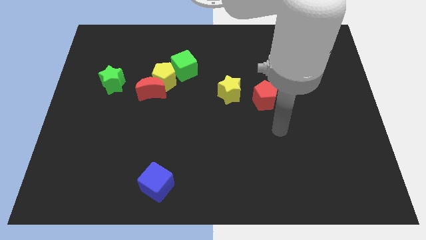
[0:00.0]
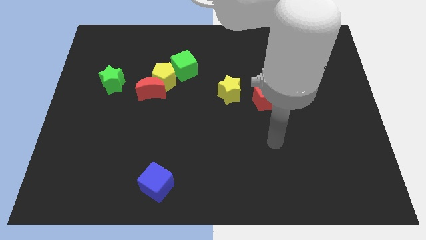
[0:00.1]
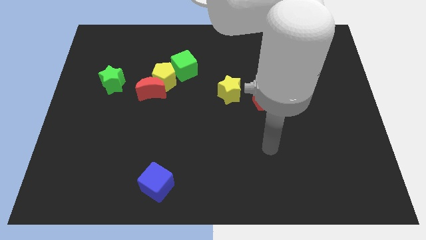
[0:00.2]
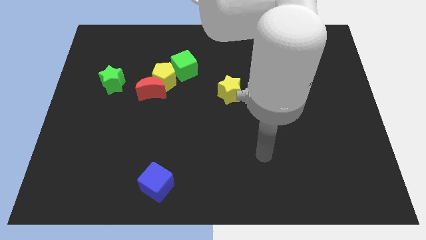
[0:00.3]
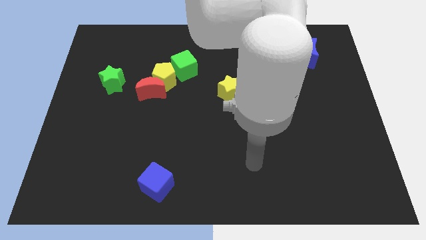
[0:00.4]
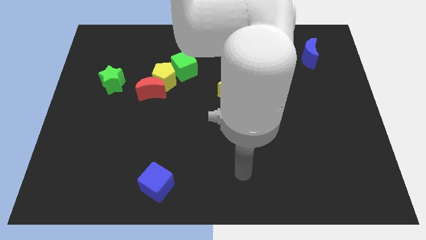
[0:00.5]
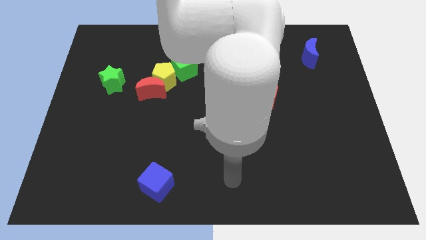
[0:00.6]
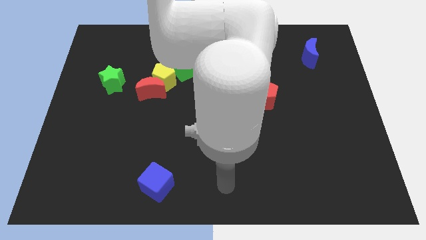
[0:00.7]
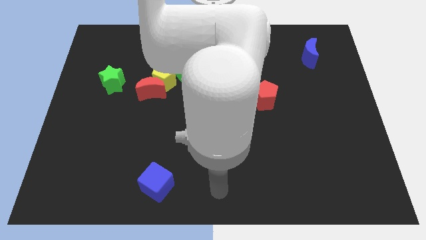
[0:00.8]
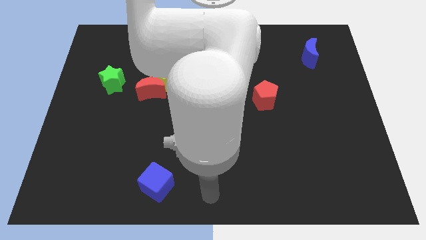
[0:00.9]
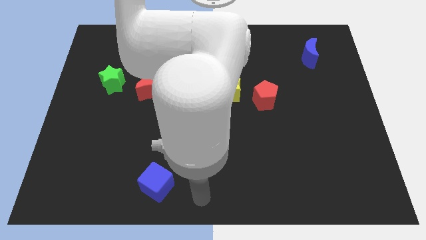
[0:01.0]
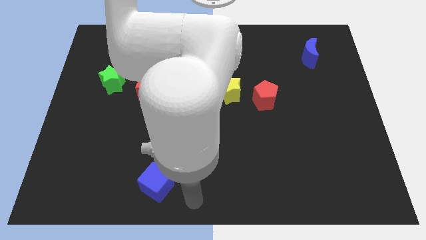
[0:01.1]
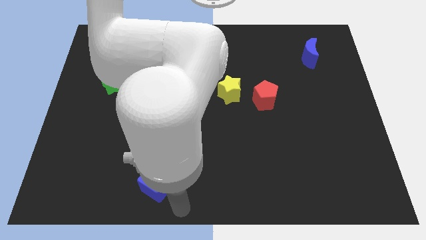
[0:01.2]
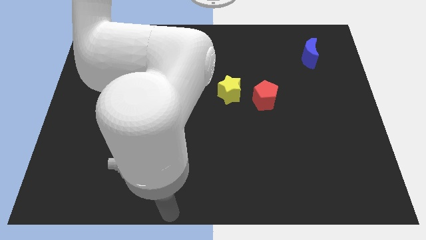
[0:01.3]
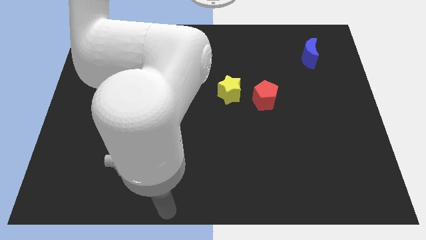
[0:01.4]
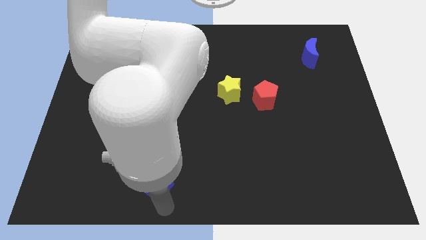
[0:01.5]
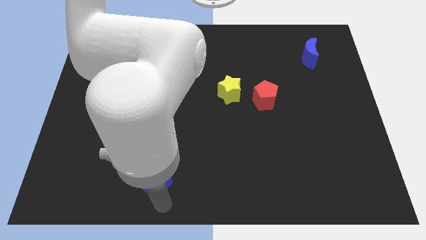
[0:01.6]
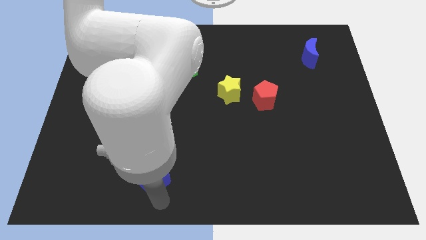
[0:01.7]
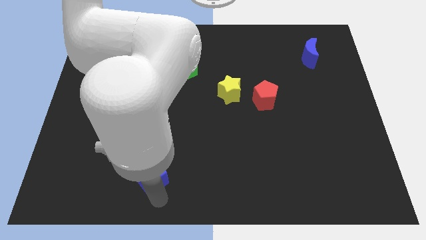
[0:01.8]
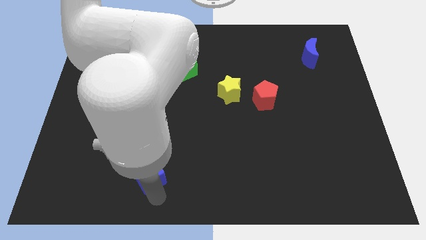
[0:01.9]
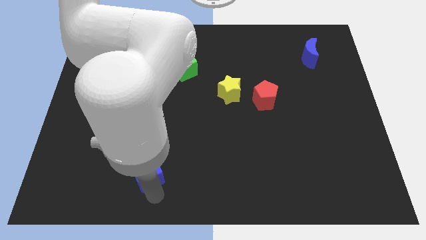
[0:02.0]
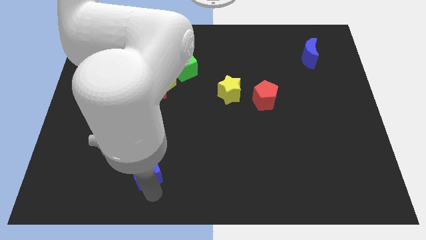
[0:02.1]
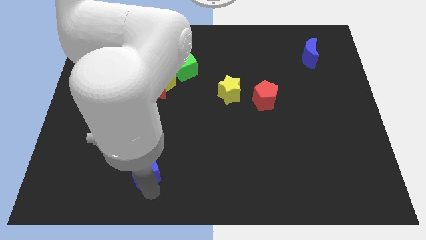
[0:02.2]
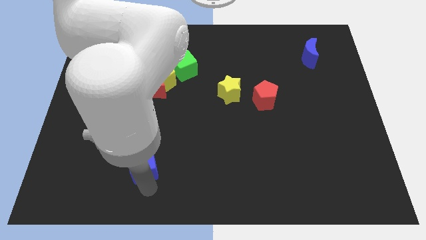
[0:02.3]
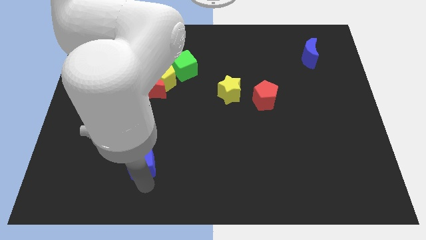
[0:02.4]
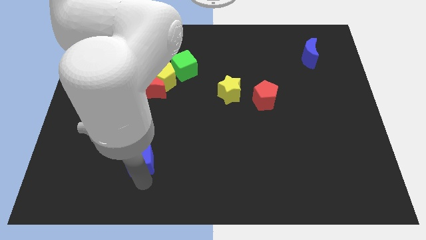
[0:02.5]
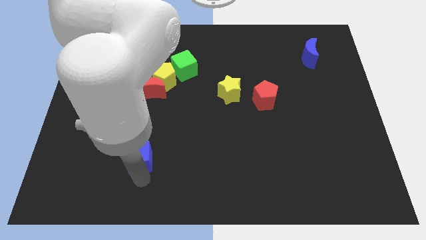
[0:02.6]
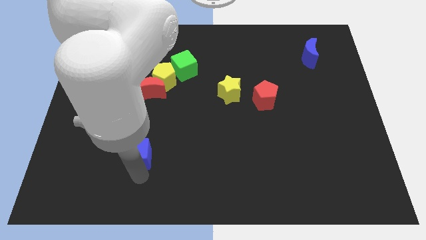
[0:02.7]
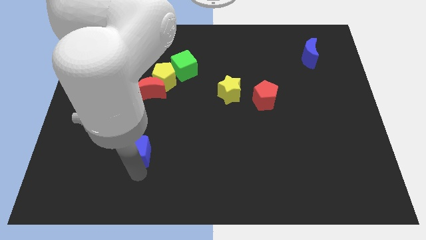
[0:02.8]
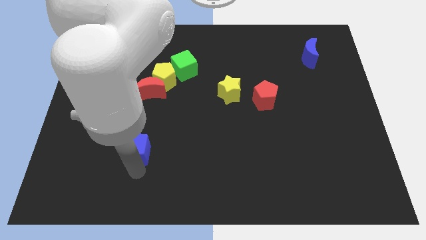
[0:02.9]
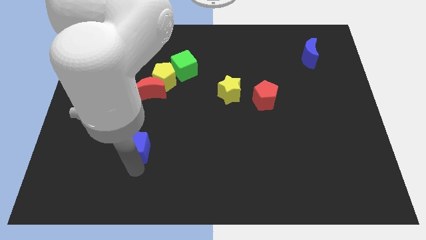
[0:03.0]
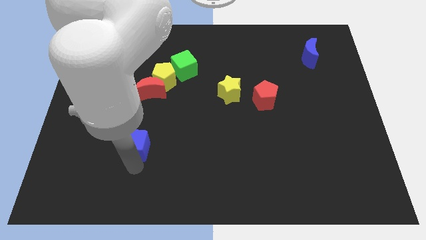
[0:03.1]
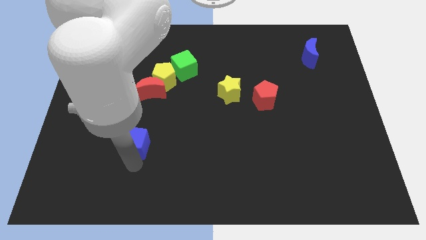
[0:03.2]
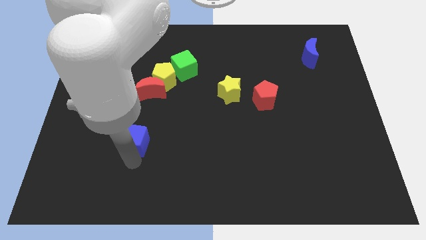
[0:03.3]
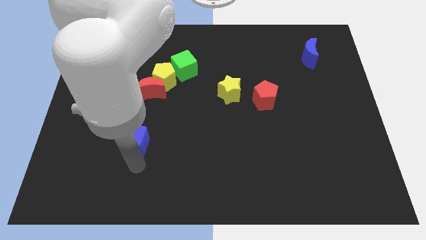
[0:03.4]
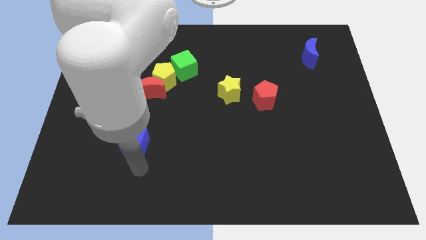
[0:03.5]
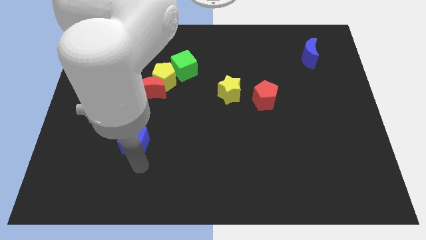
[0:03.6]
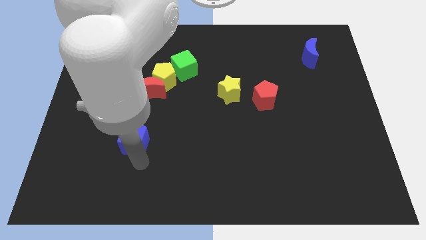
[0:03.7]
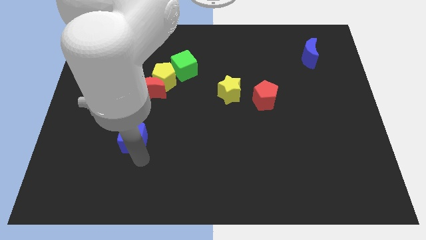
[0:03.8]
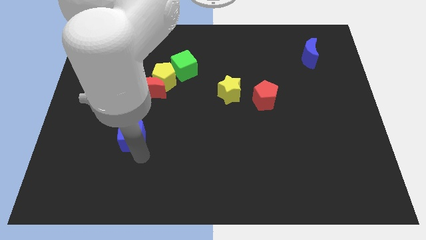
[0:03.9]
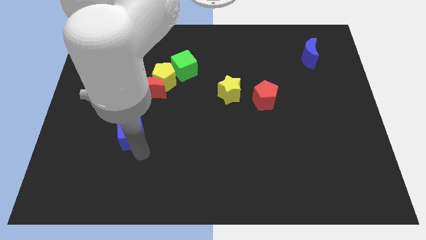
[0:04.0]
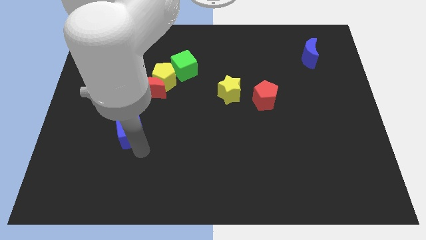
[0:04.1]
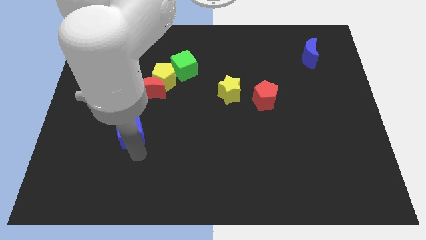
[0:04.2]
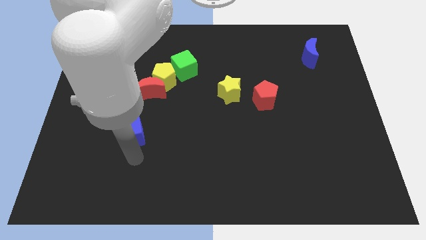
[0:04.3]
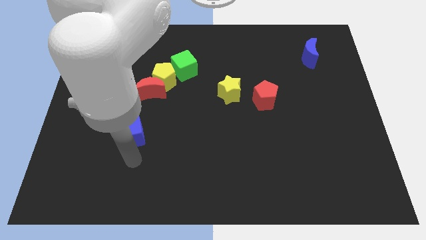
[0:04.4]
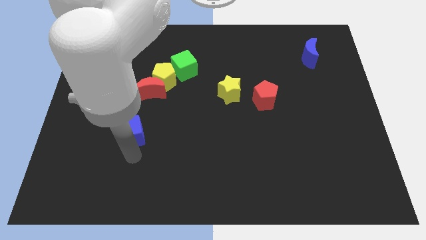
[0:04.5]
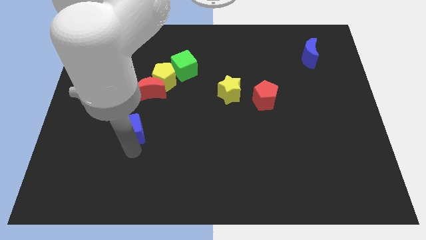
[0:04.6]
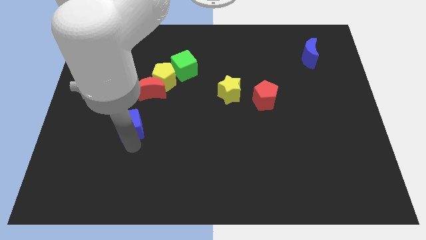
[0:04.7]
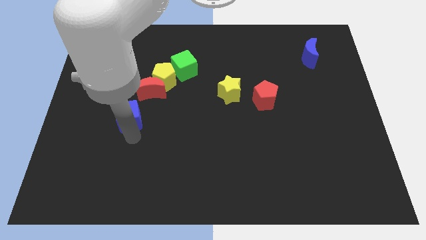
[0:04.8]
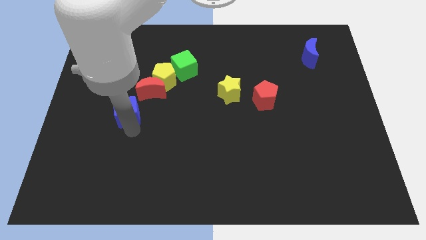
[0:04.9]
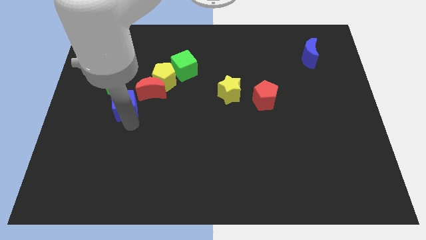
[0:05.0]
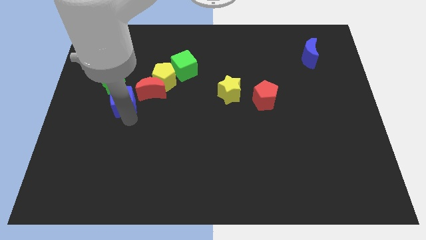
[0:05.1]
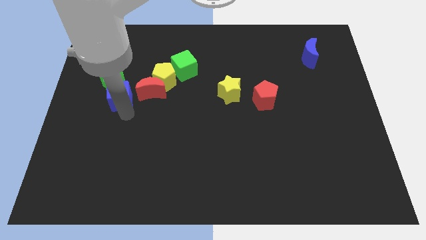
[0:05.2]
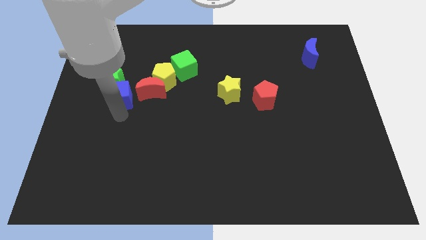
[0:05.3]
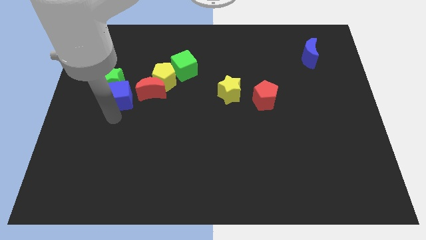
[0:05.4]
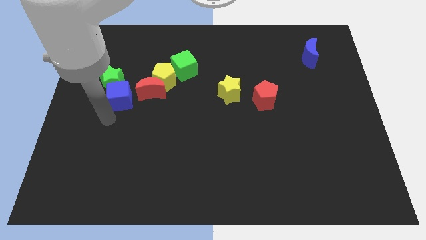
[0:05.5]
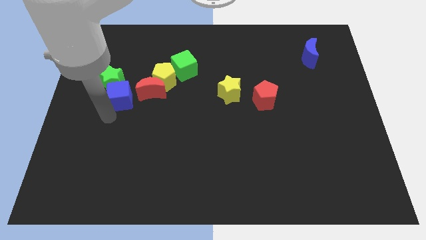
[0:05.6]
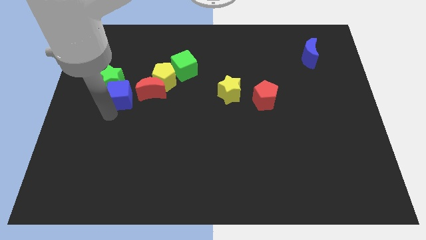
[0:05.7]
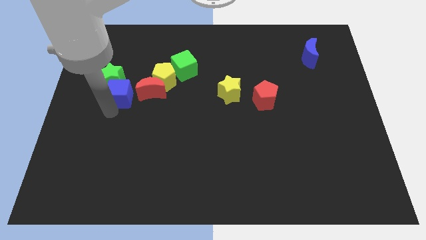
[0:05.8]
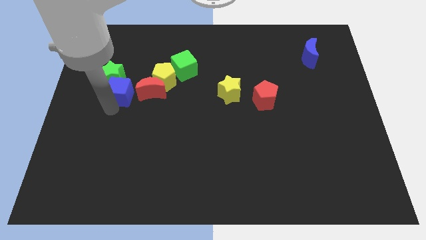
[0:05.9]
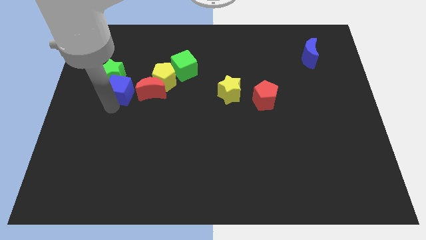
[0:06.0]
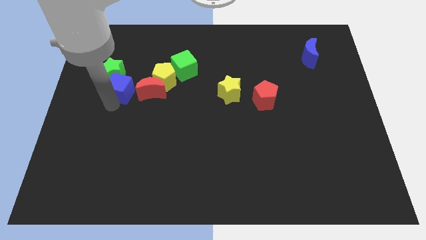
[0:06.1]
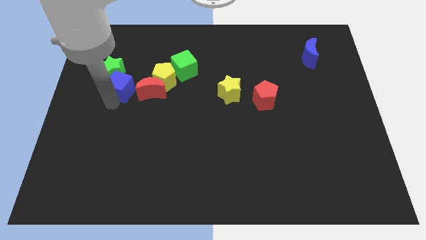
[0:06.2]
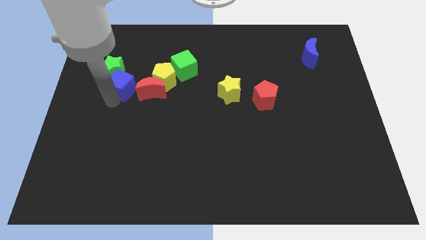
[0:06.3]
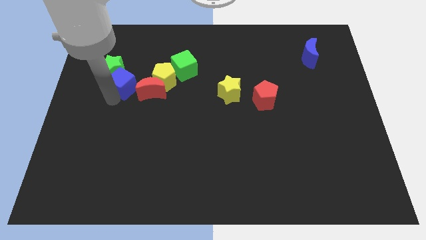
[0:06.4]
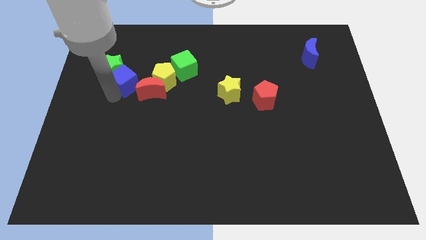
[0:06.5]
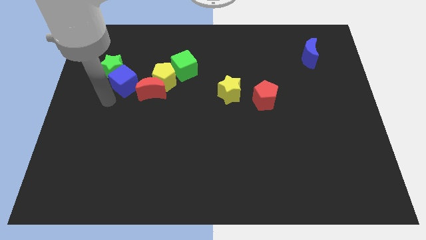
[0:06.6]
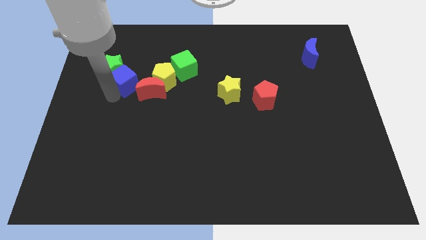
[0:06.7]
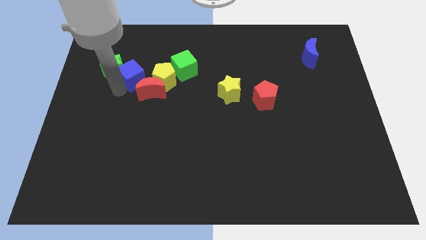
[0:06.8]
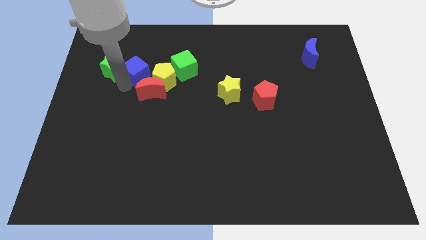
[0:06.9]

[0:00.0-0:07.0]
move the blue cube to the top left of the yellow pentagon
